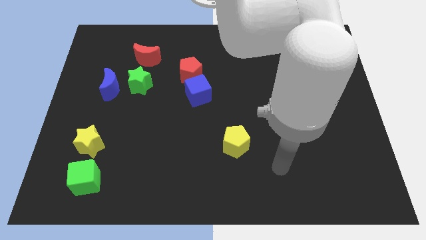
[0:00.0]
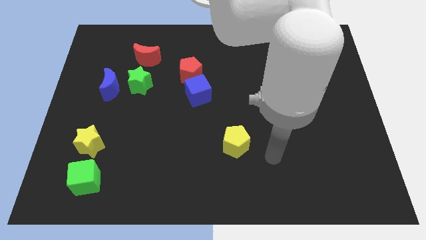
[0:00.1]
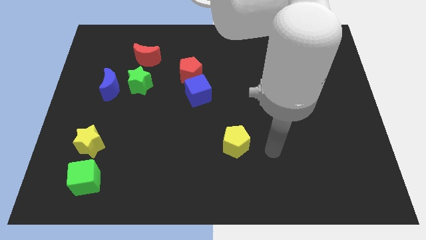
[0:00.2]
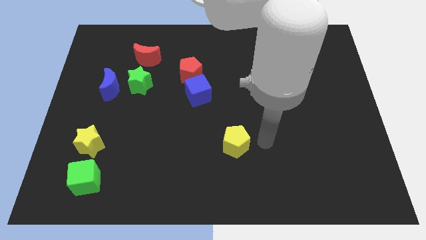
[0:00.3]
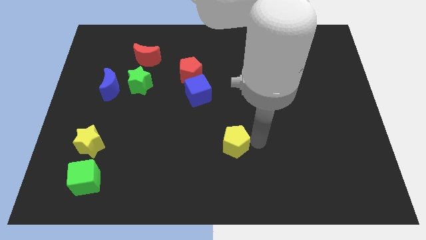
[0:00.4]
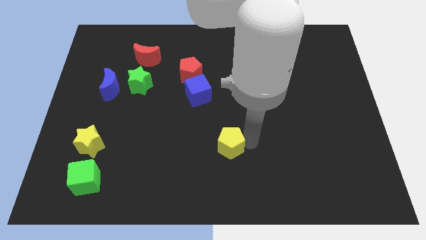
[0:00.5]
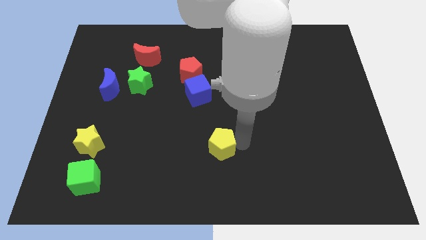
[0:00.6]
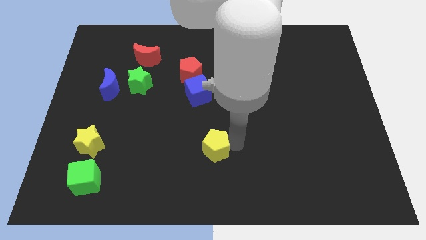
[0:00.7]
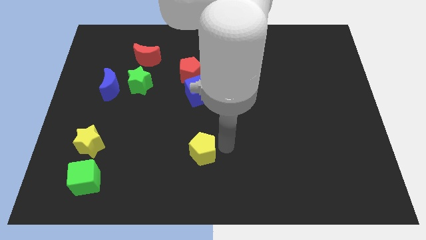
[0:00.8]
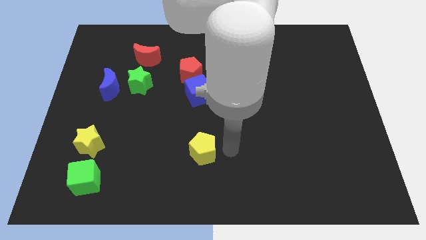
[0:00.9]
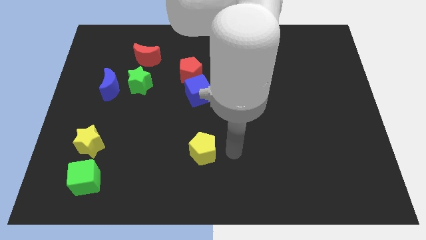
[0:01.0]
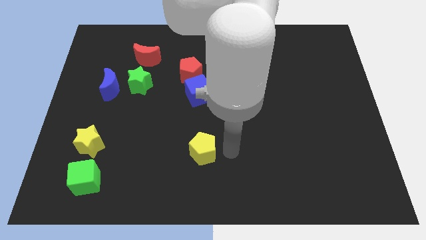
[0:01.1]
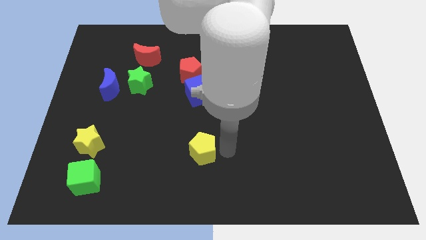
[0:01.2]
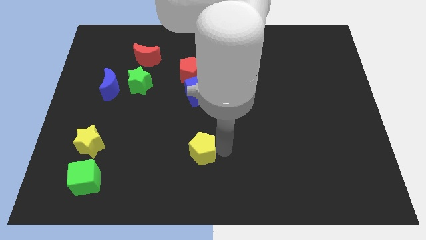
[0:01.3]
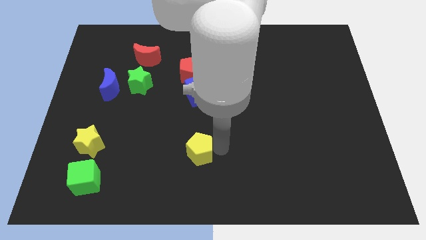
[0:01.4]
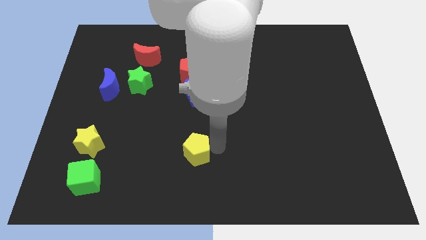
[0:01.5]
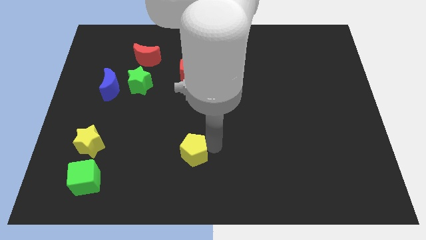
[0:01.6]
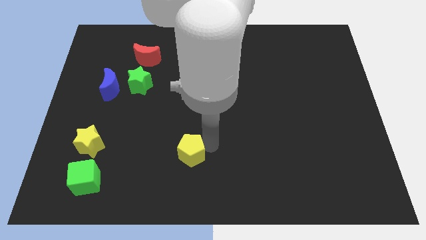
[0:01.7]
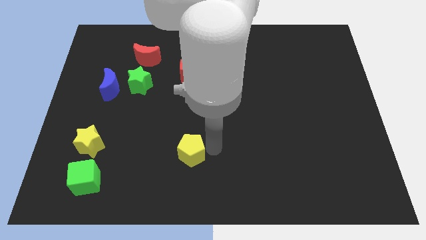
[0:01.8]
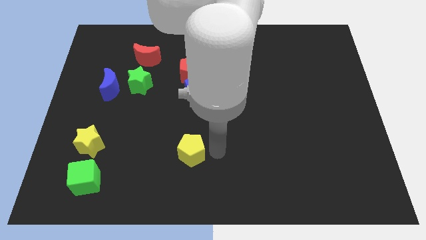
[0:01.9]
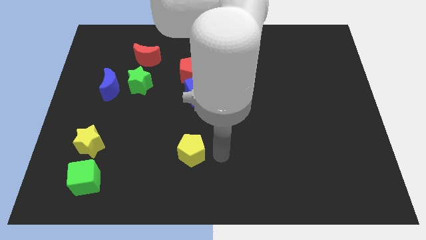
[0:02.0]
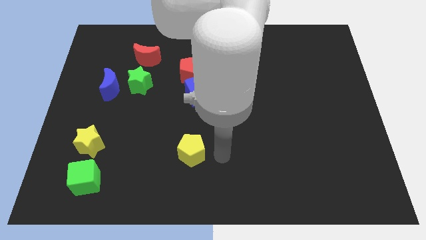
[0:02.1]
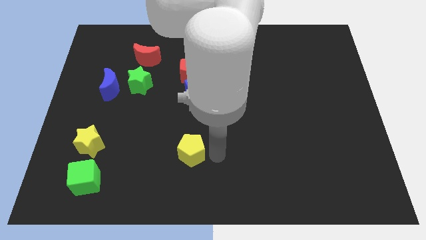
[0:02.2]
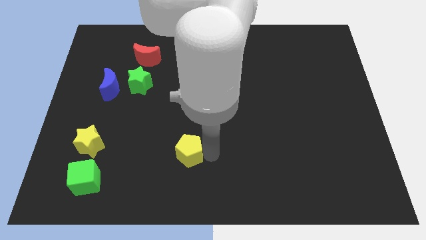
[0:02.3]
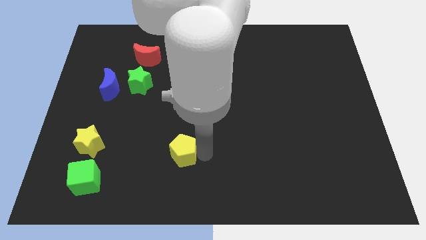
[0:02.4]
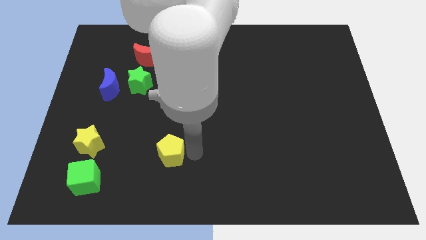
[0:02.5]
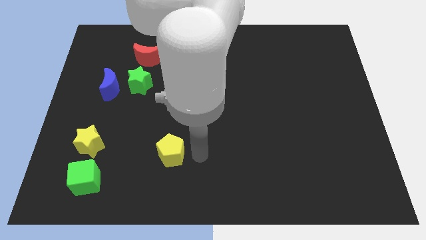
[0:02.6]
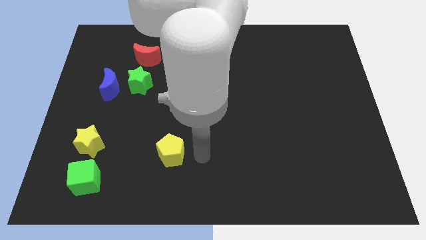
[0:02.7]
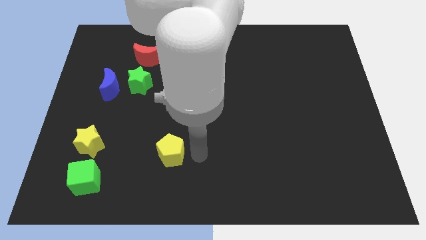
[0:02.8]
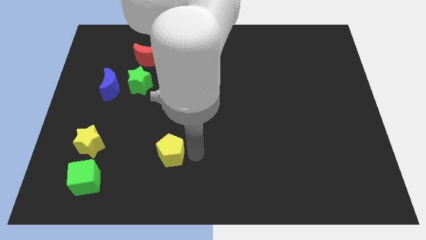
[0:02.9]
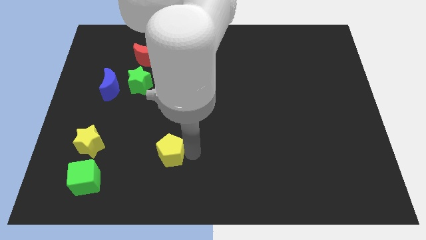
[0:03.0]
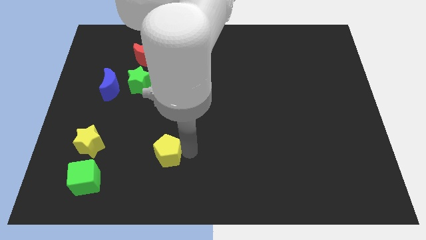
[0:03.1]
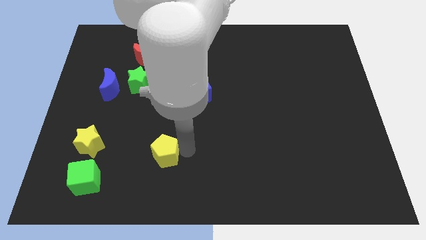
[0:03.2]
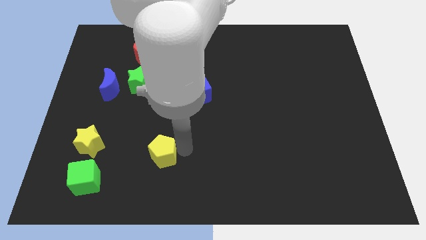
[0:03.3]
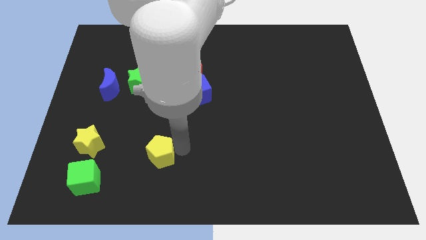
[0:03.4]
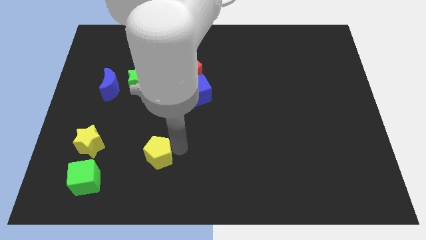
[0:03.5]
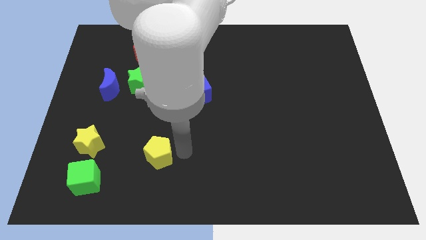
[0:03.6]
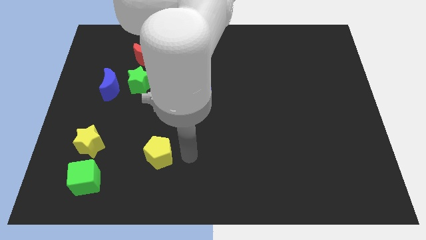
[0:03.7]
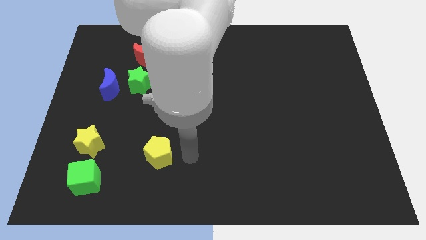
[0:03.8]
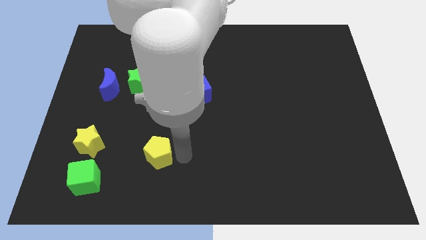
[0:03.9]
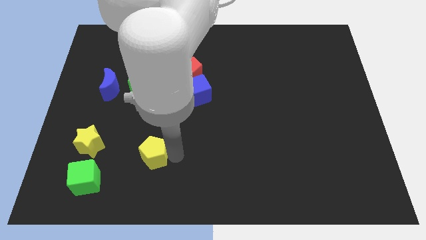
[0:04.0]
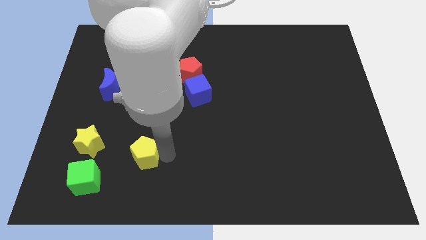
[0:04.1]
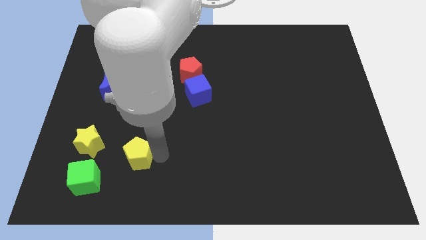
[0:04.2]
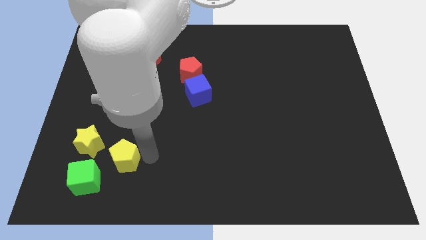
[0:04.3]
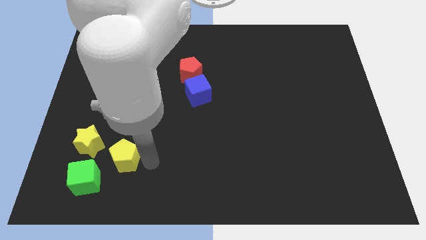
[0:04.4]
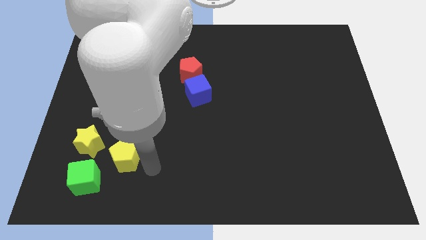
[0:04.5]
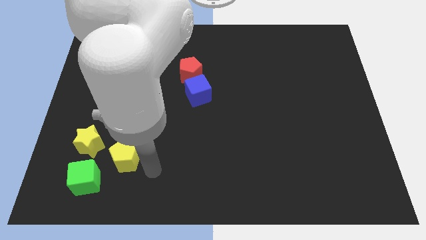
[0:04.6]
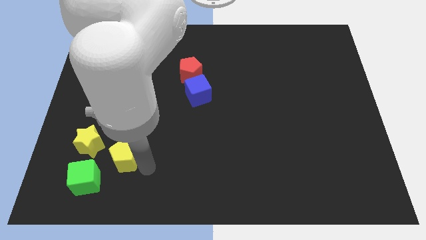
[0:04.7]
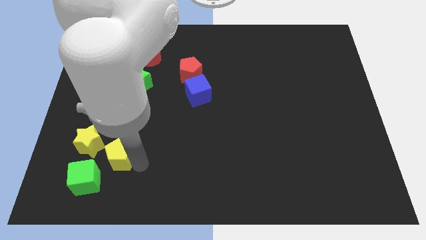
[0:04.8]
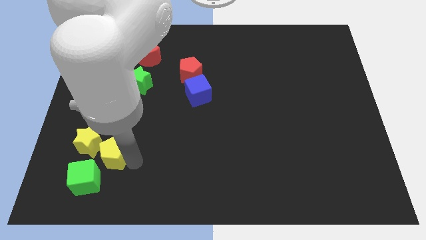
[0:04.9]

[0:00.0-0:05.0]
put the yellow pentagon next to the yellow star

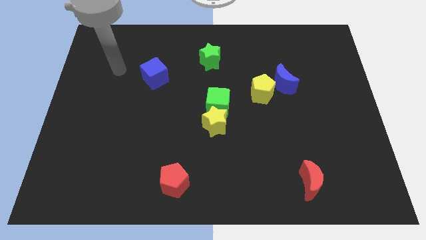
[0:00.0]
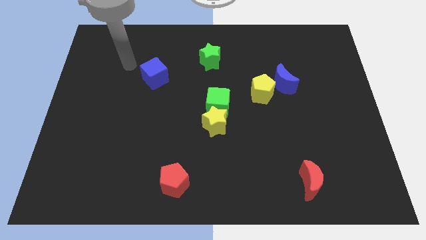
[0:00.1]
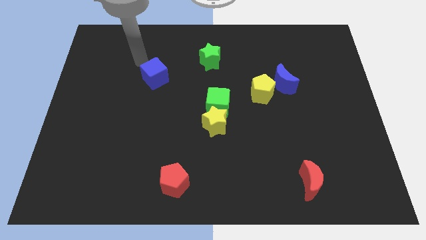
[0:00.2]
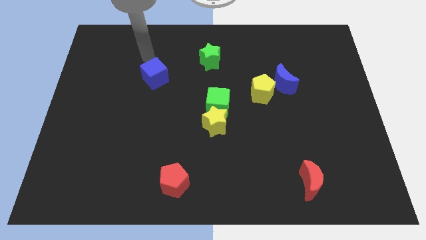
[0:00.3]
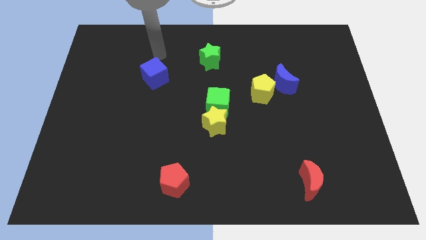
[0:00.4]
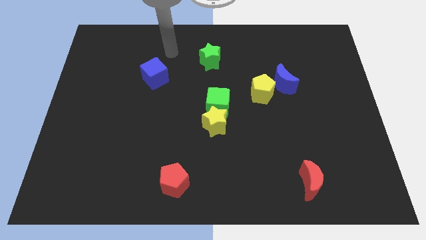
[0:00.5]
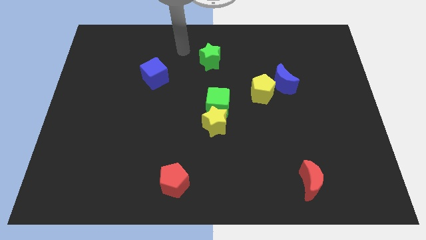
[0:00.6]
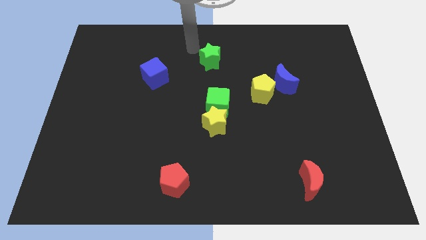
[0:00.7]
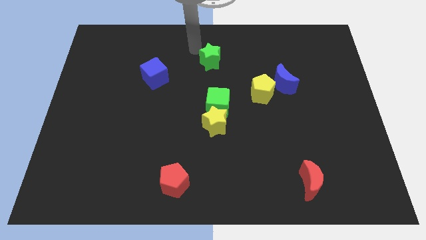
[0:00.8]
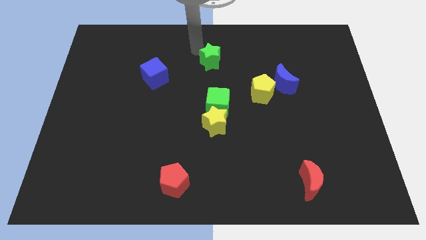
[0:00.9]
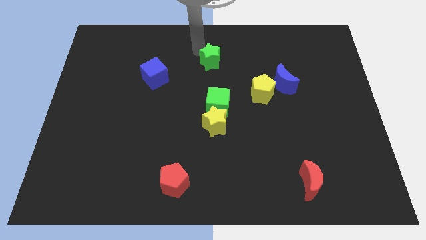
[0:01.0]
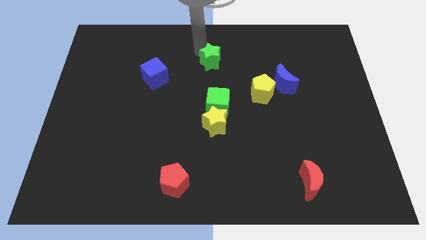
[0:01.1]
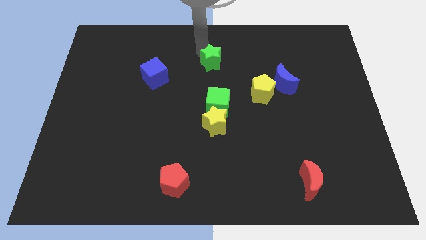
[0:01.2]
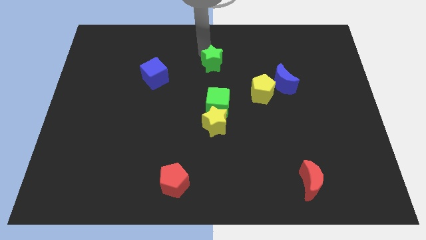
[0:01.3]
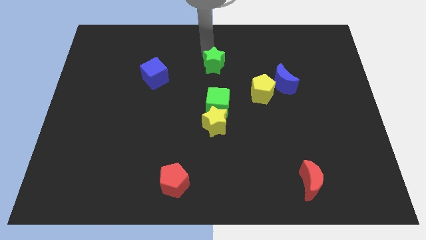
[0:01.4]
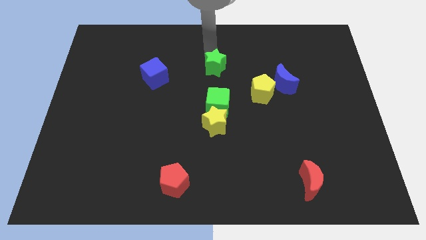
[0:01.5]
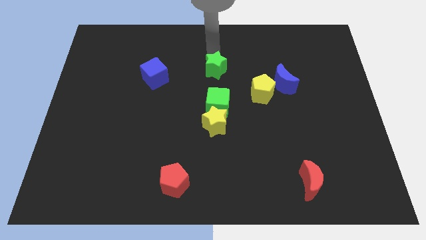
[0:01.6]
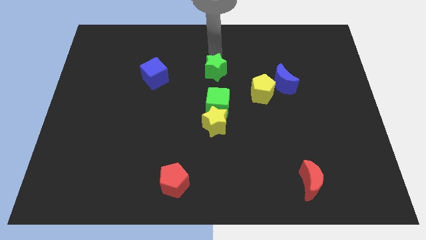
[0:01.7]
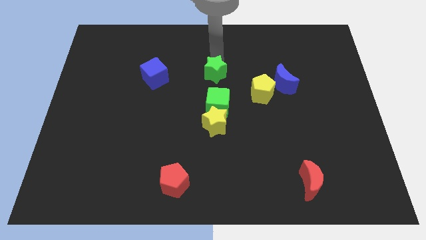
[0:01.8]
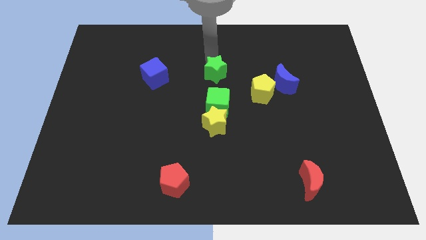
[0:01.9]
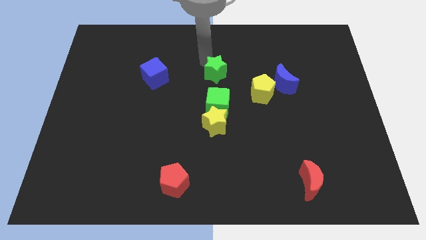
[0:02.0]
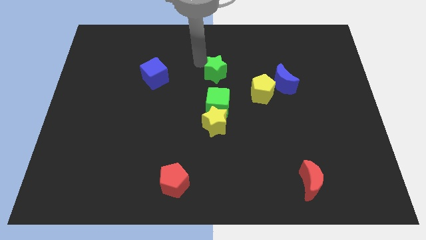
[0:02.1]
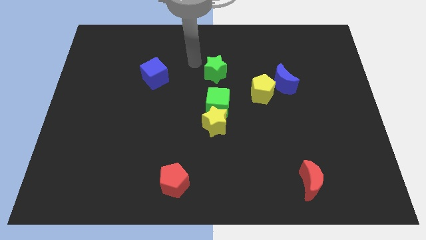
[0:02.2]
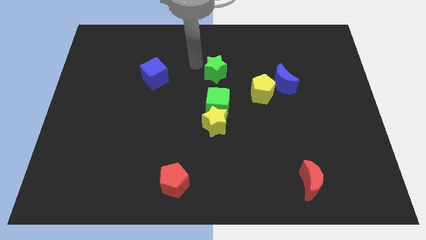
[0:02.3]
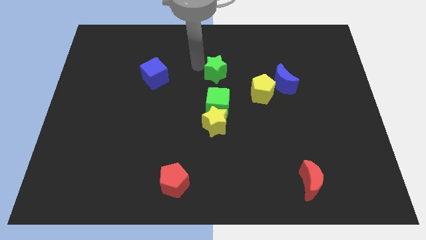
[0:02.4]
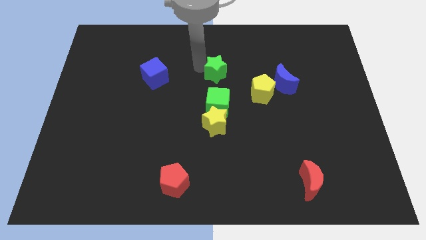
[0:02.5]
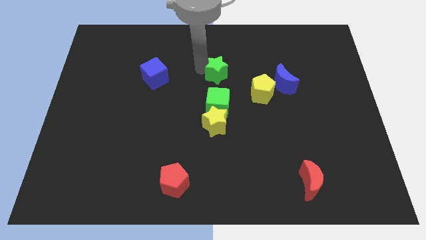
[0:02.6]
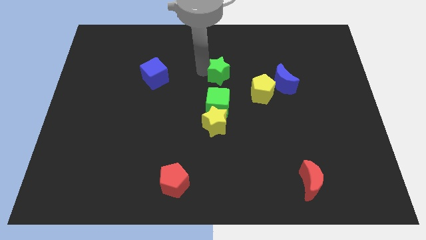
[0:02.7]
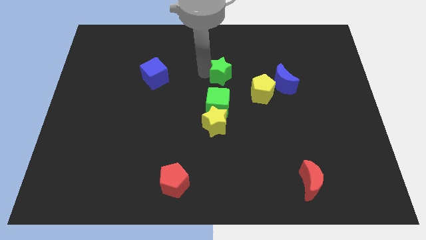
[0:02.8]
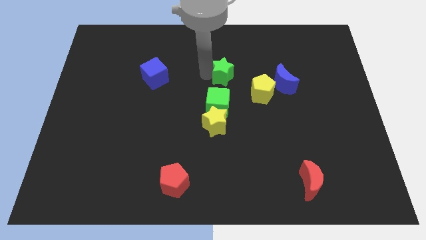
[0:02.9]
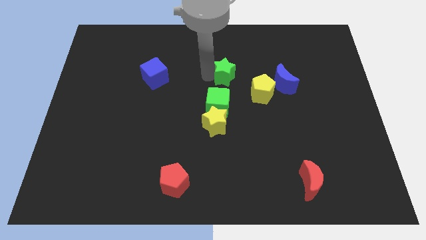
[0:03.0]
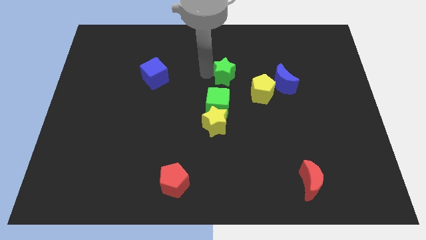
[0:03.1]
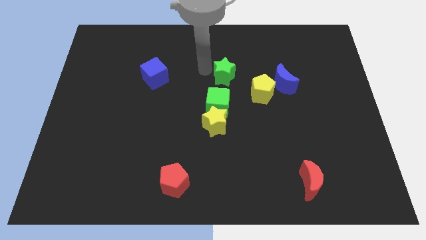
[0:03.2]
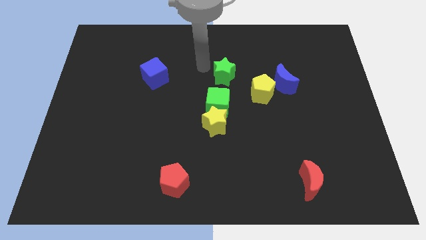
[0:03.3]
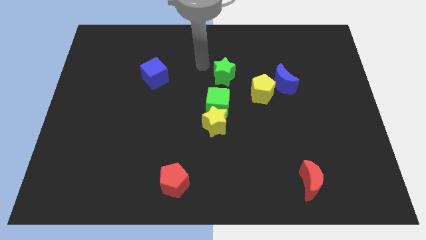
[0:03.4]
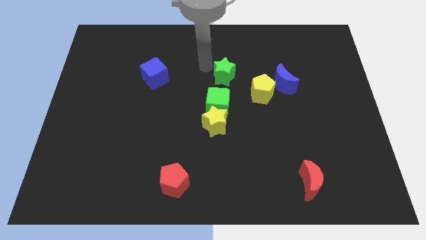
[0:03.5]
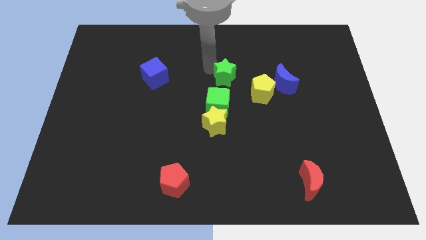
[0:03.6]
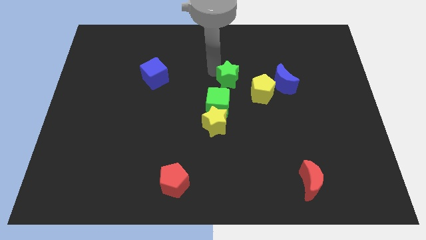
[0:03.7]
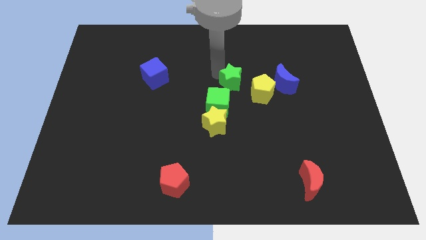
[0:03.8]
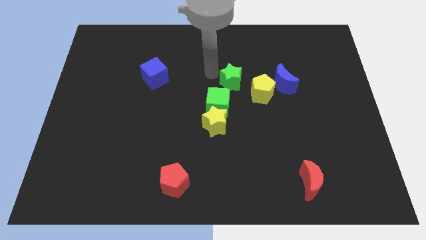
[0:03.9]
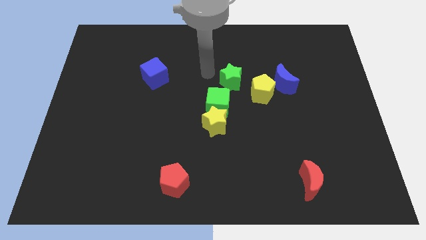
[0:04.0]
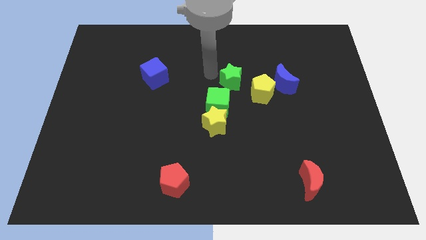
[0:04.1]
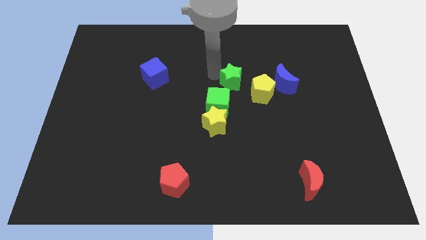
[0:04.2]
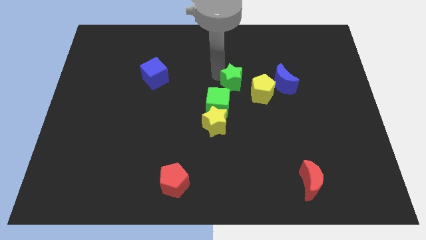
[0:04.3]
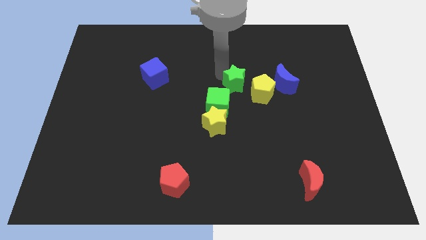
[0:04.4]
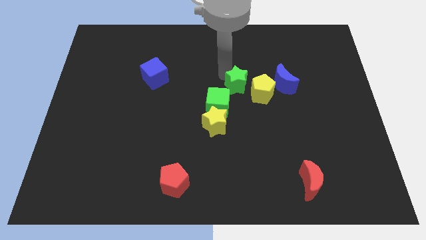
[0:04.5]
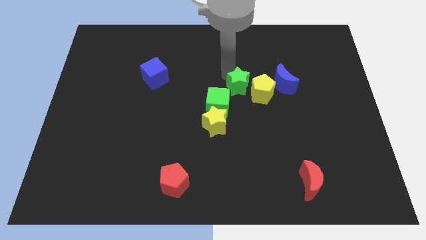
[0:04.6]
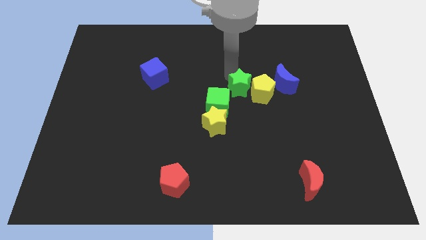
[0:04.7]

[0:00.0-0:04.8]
push the green star to the yellow pentagon
